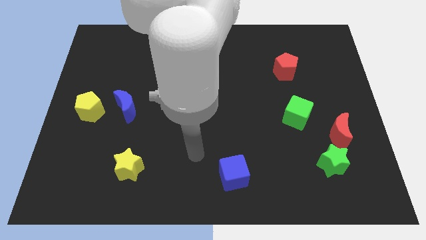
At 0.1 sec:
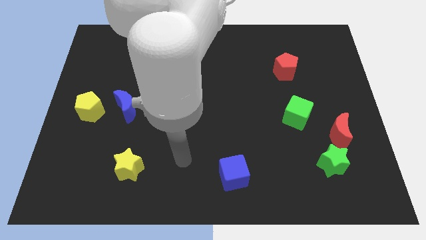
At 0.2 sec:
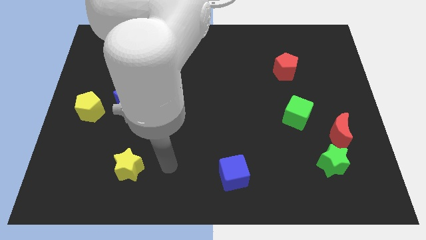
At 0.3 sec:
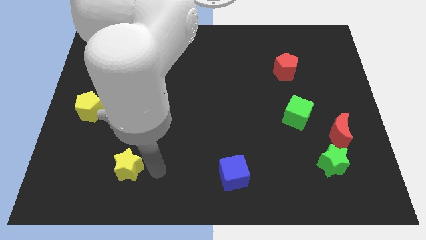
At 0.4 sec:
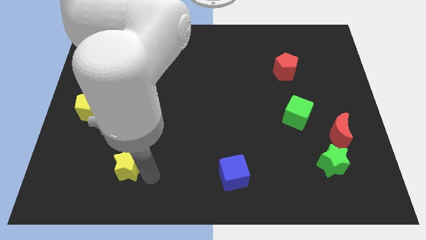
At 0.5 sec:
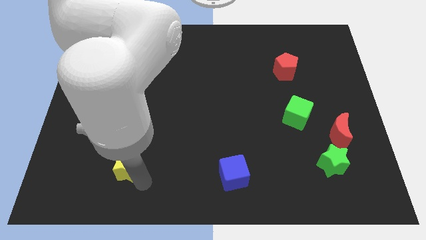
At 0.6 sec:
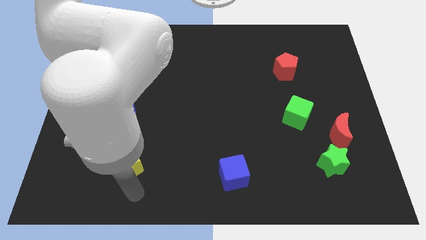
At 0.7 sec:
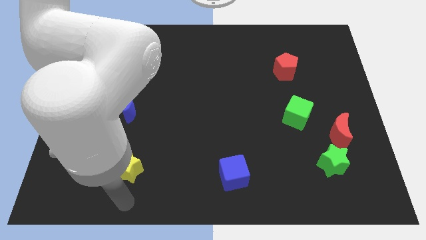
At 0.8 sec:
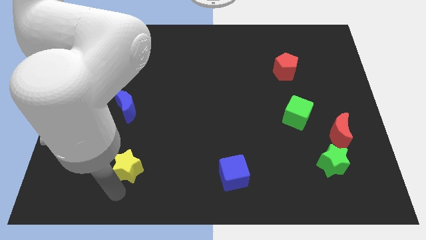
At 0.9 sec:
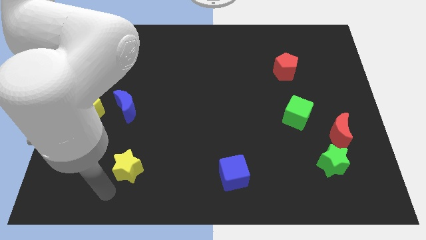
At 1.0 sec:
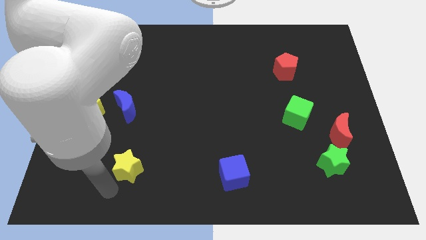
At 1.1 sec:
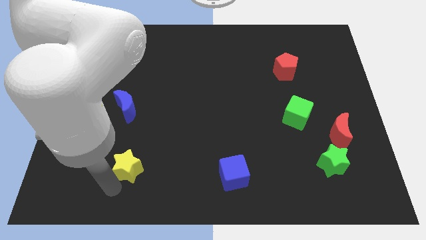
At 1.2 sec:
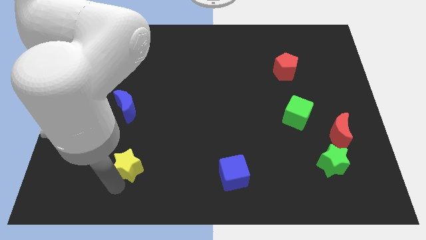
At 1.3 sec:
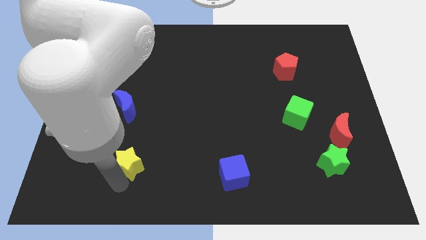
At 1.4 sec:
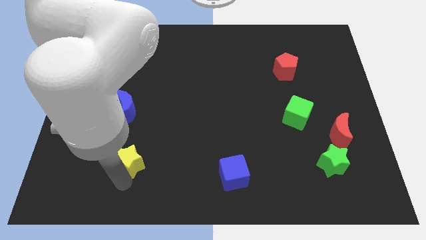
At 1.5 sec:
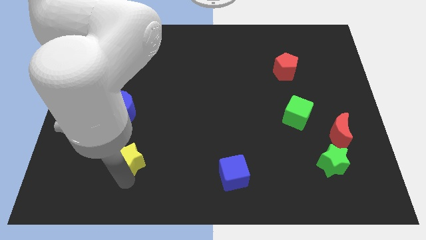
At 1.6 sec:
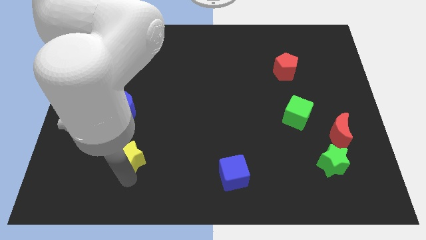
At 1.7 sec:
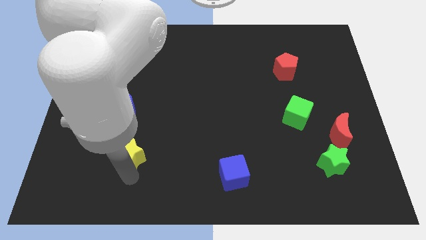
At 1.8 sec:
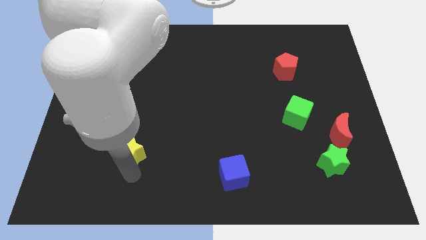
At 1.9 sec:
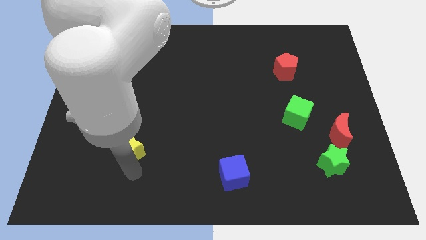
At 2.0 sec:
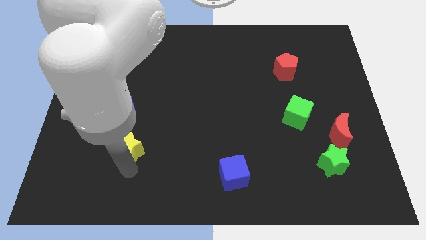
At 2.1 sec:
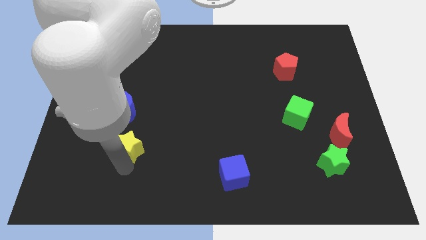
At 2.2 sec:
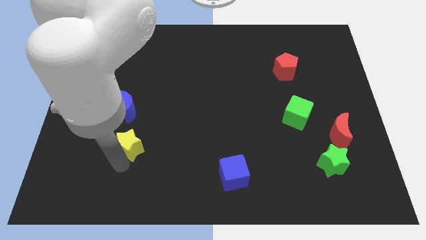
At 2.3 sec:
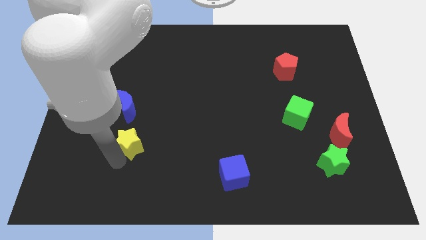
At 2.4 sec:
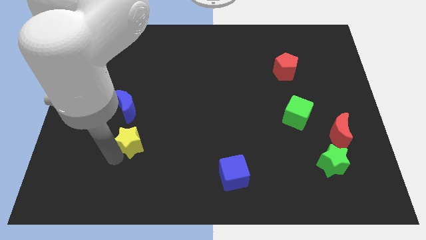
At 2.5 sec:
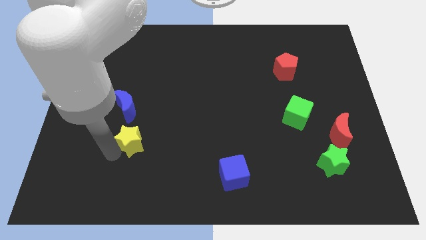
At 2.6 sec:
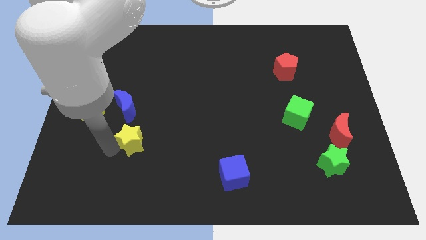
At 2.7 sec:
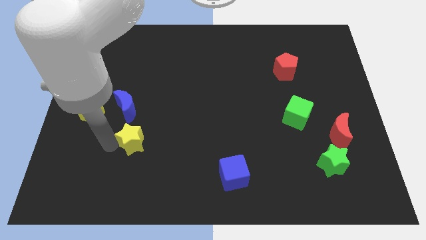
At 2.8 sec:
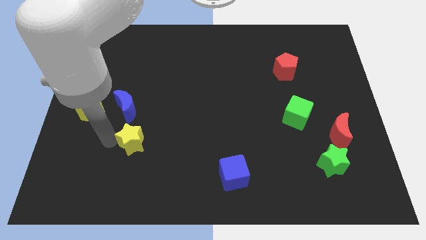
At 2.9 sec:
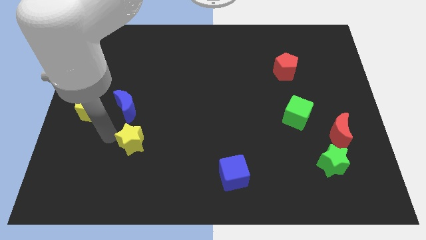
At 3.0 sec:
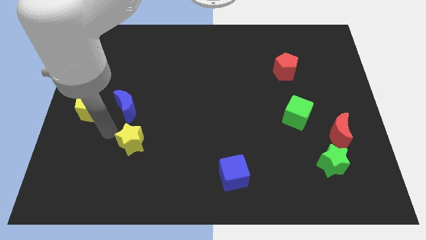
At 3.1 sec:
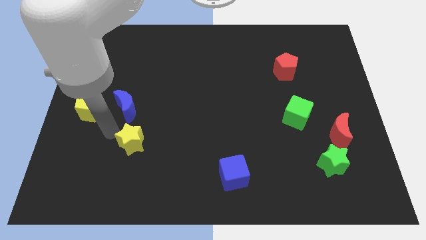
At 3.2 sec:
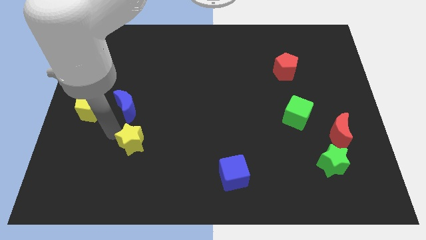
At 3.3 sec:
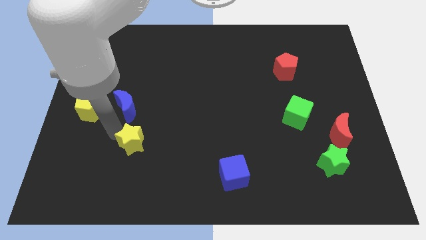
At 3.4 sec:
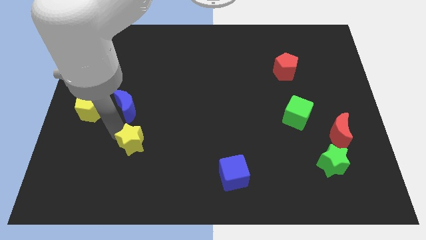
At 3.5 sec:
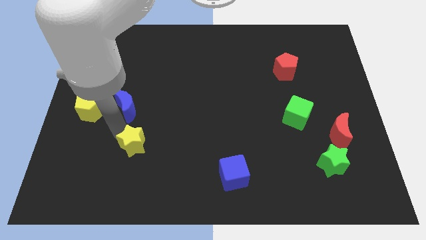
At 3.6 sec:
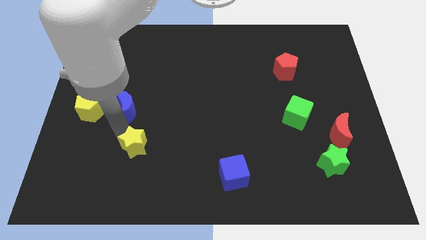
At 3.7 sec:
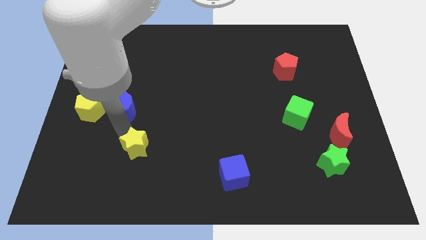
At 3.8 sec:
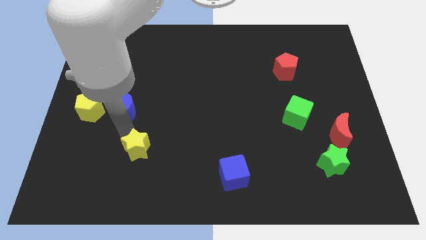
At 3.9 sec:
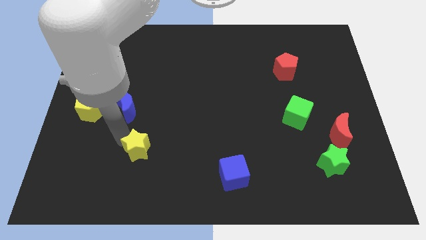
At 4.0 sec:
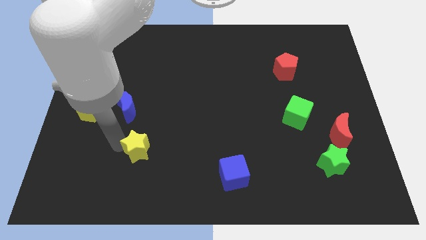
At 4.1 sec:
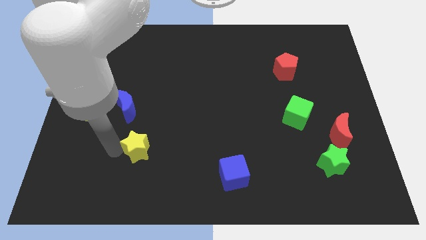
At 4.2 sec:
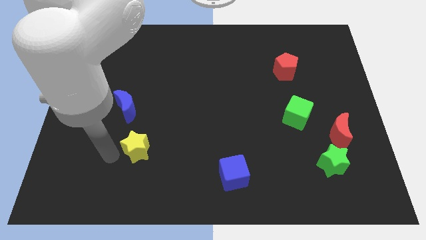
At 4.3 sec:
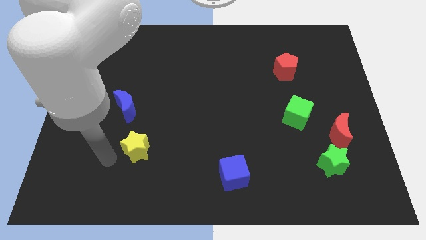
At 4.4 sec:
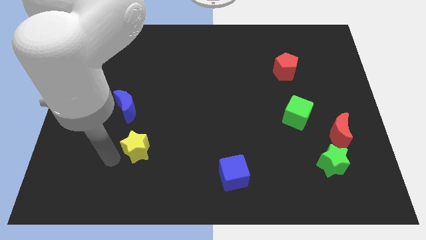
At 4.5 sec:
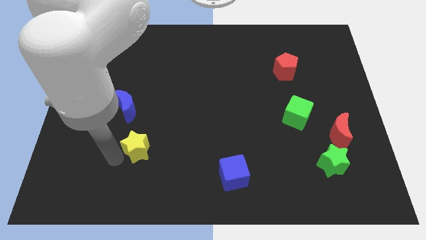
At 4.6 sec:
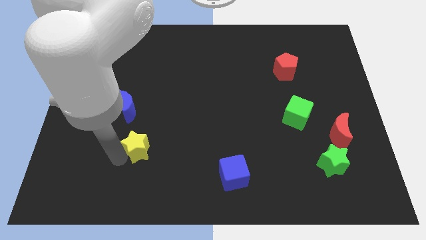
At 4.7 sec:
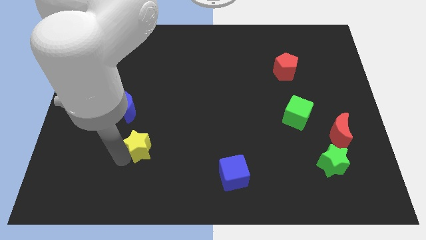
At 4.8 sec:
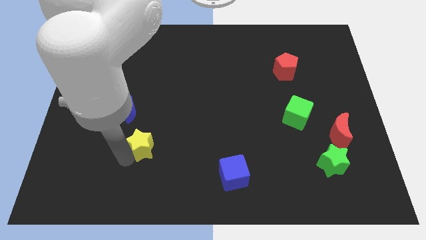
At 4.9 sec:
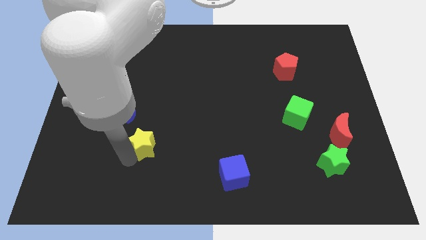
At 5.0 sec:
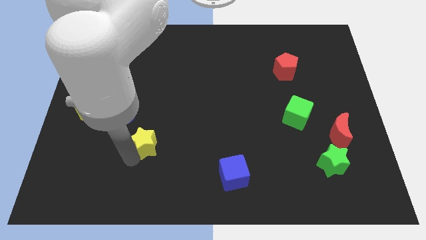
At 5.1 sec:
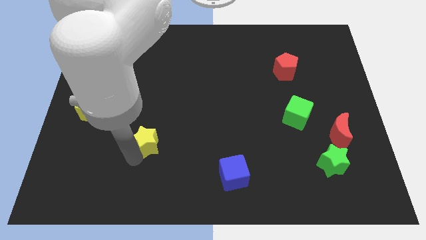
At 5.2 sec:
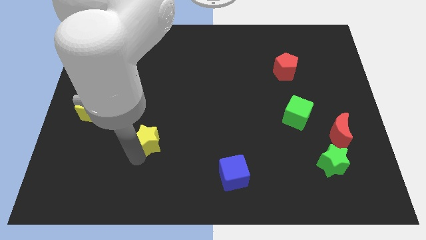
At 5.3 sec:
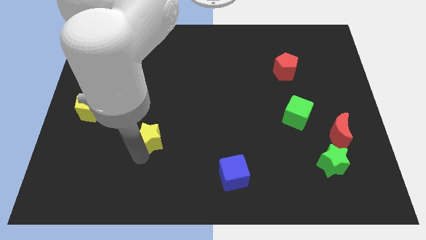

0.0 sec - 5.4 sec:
slide the yellow star a bit upwards and to the right diagonally

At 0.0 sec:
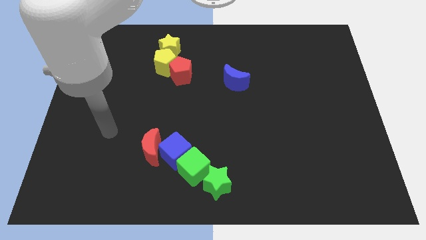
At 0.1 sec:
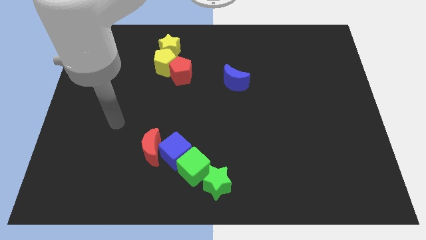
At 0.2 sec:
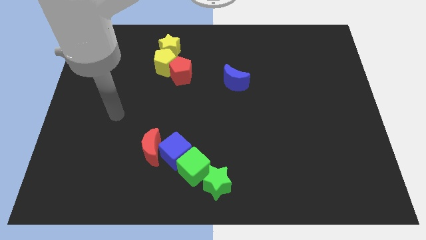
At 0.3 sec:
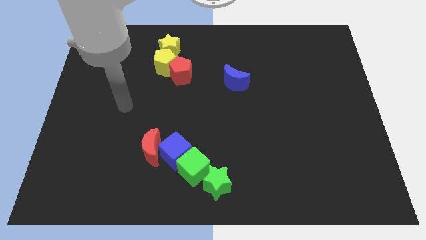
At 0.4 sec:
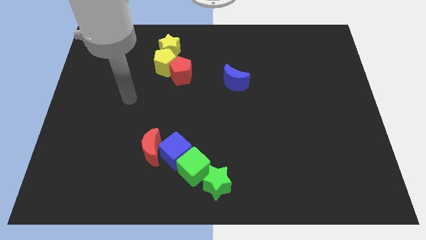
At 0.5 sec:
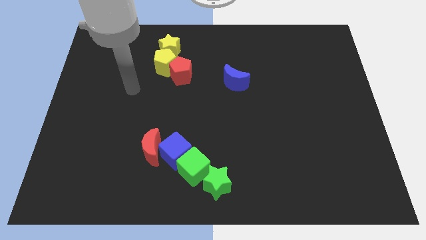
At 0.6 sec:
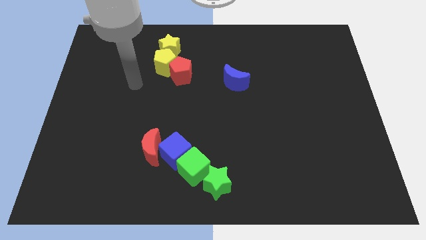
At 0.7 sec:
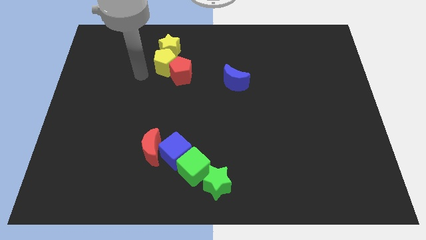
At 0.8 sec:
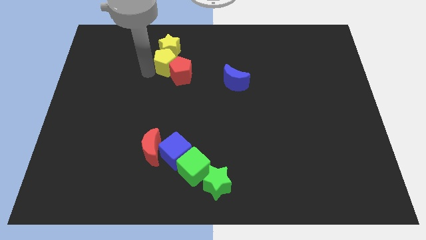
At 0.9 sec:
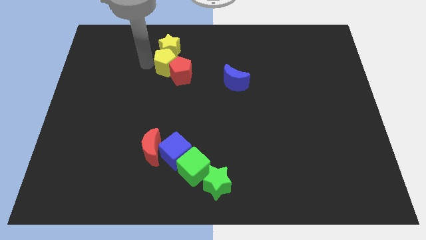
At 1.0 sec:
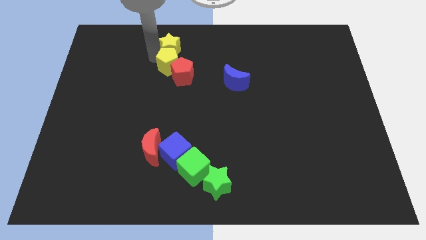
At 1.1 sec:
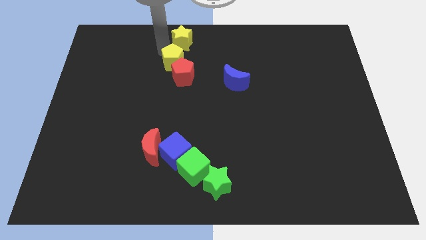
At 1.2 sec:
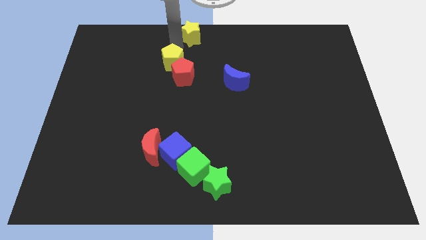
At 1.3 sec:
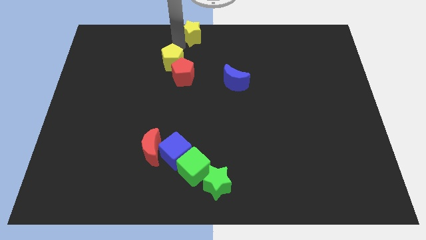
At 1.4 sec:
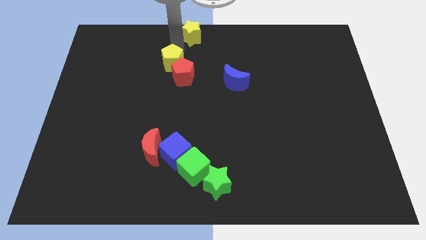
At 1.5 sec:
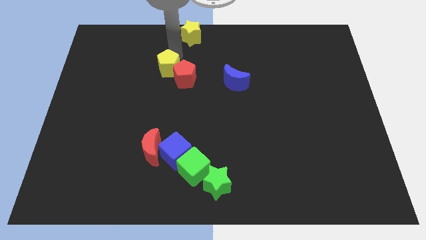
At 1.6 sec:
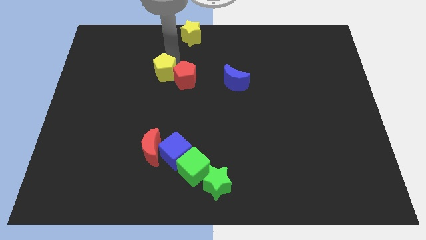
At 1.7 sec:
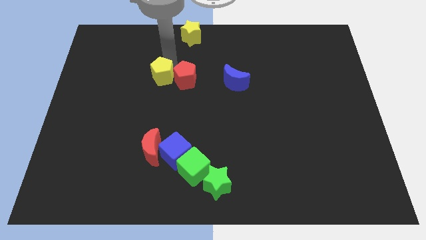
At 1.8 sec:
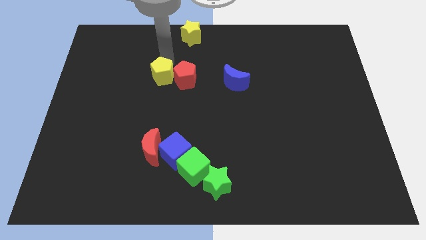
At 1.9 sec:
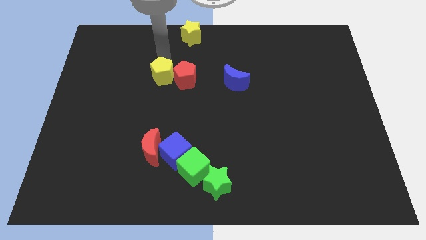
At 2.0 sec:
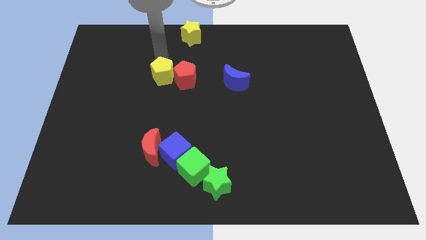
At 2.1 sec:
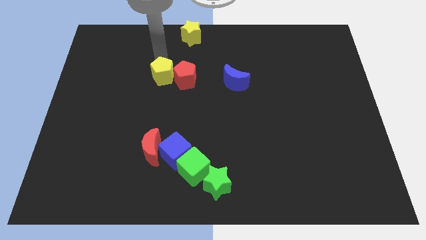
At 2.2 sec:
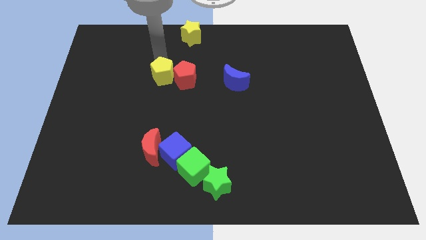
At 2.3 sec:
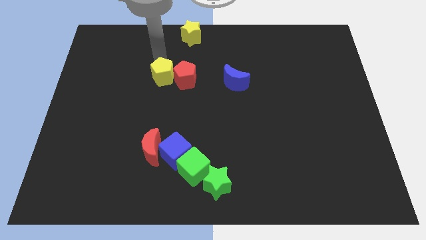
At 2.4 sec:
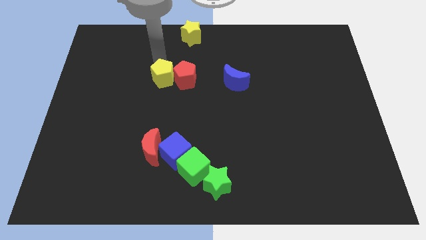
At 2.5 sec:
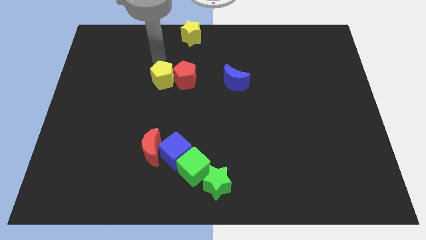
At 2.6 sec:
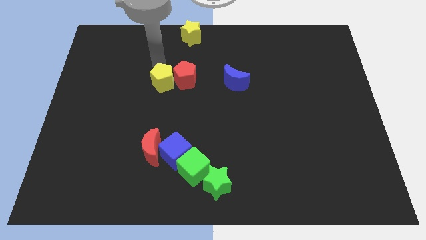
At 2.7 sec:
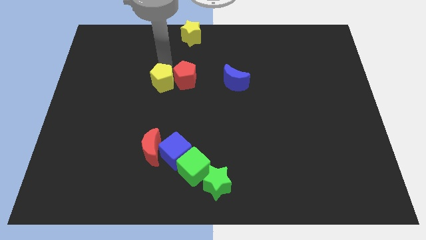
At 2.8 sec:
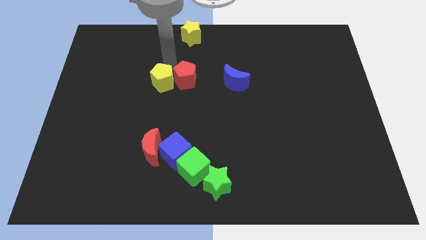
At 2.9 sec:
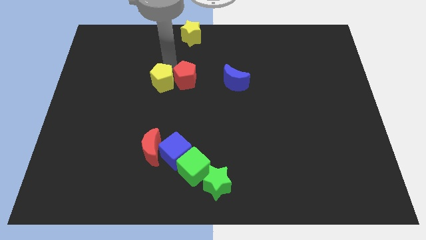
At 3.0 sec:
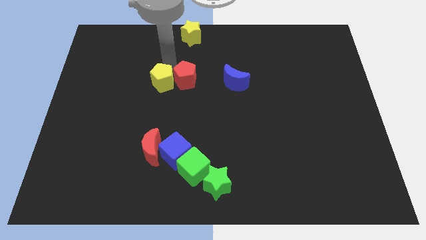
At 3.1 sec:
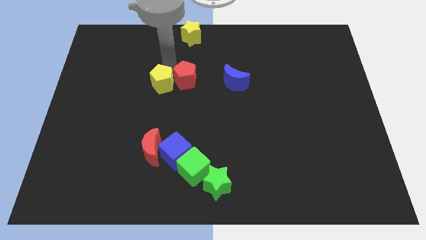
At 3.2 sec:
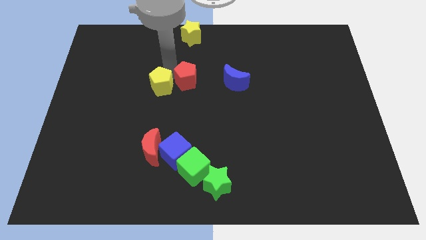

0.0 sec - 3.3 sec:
move the yellow pentagon somewhat downwards
